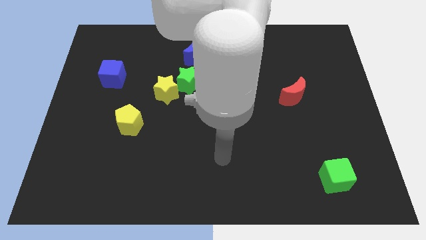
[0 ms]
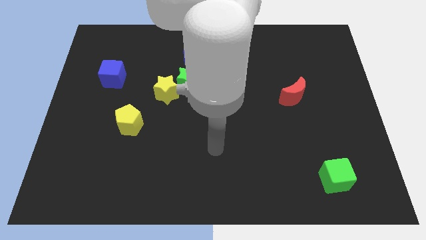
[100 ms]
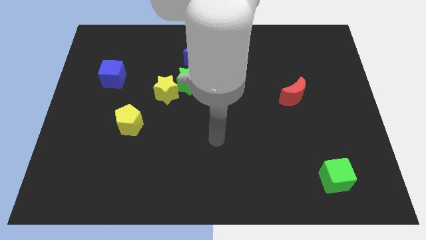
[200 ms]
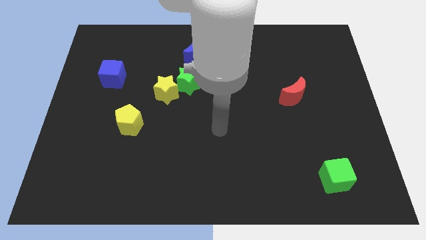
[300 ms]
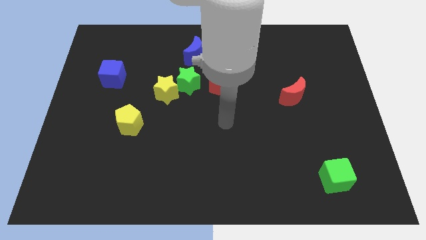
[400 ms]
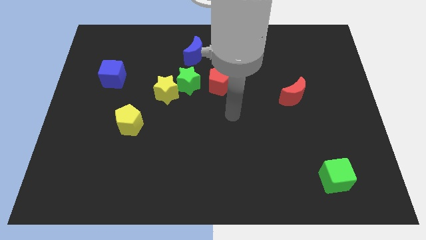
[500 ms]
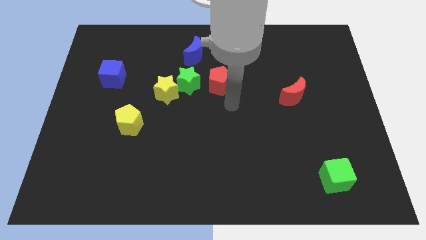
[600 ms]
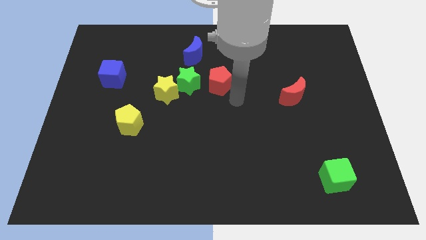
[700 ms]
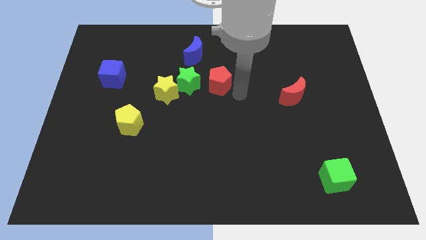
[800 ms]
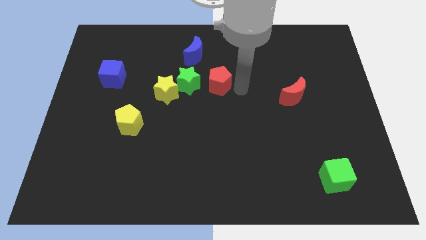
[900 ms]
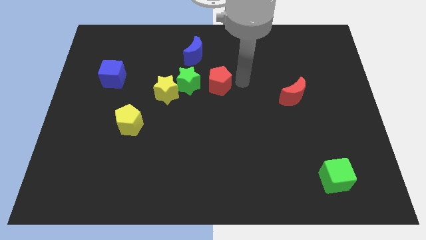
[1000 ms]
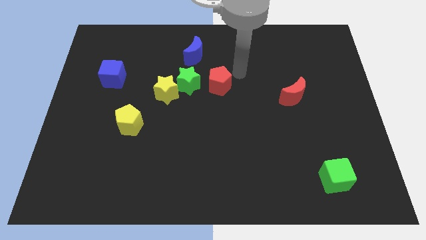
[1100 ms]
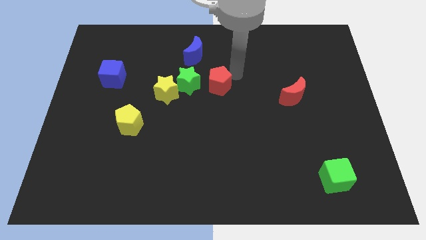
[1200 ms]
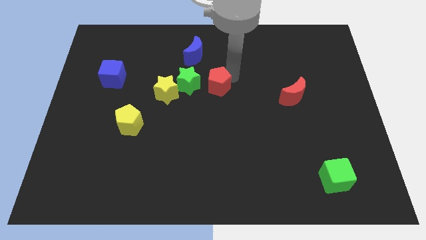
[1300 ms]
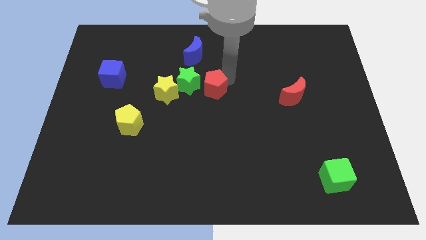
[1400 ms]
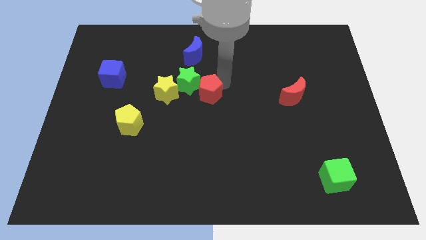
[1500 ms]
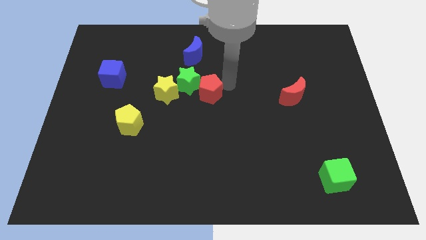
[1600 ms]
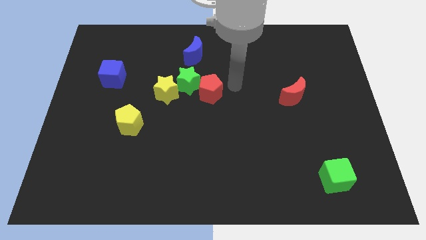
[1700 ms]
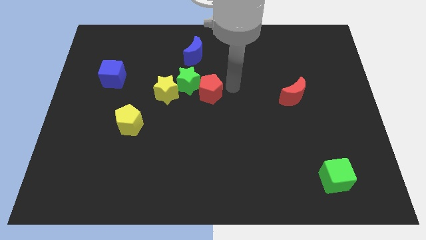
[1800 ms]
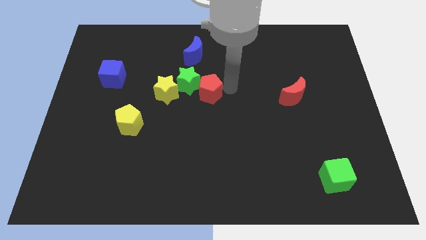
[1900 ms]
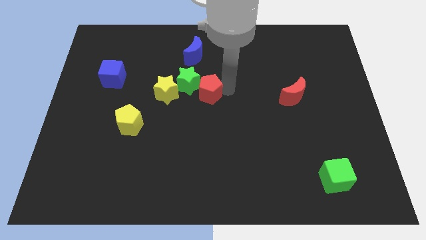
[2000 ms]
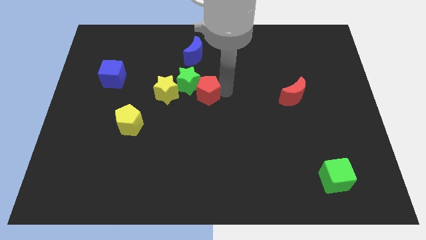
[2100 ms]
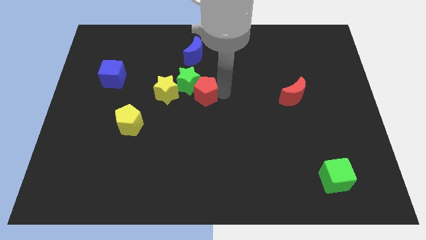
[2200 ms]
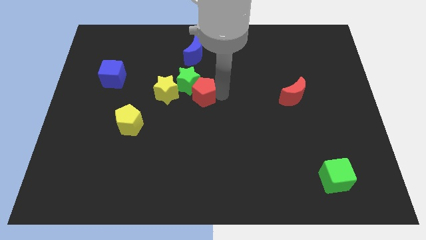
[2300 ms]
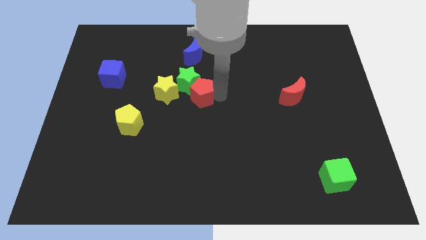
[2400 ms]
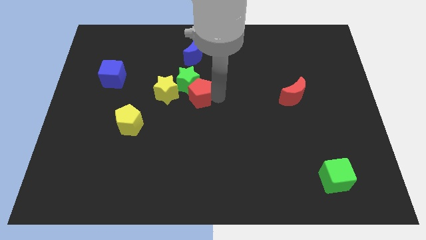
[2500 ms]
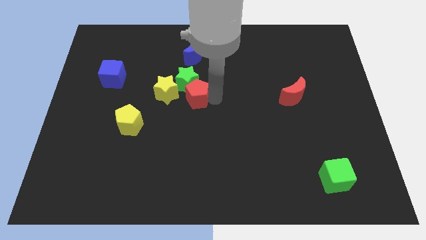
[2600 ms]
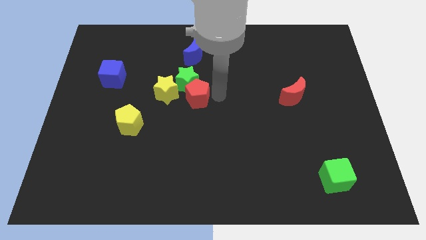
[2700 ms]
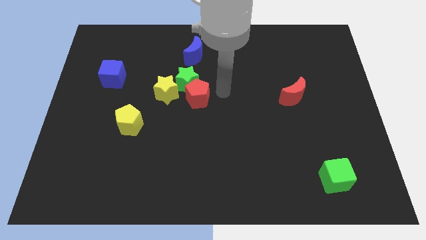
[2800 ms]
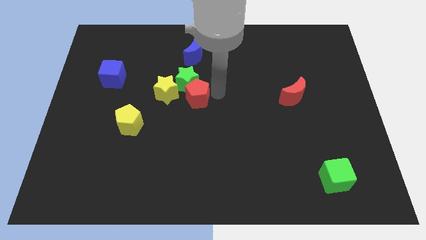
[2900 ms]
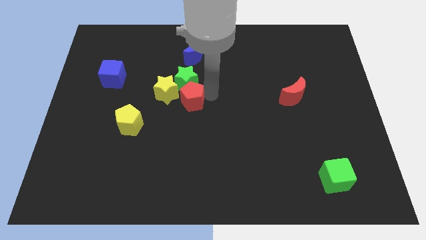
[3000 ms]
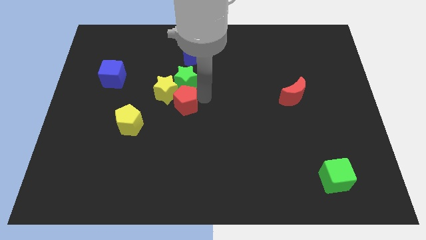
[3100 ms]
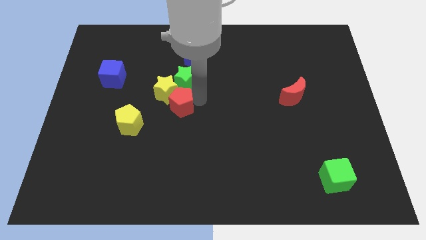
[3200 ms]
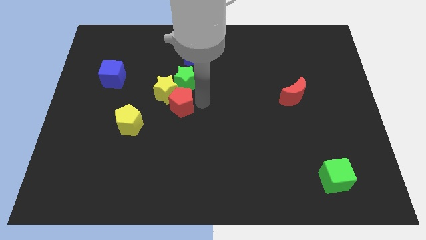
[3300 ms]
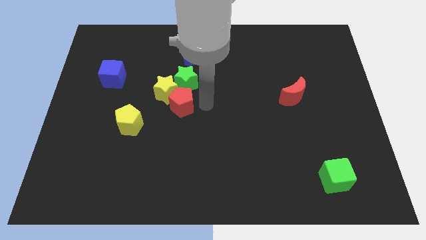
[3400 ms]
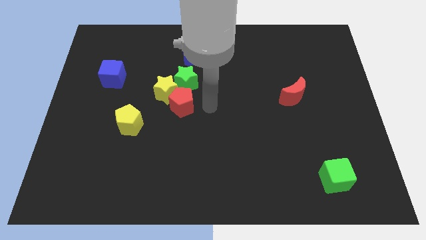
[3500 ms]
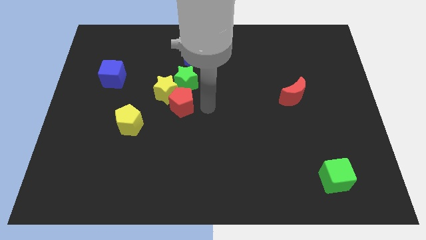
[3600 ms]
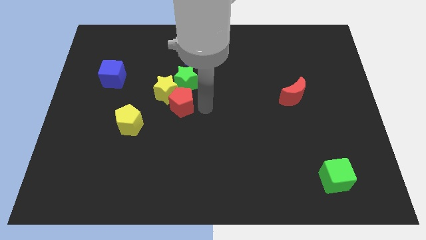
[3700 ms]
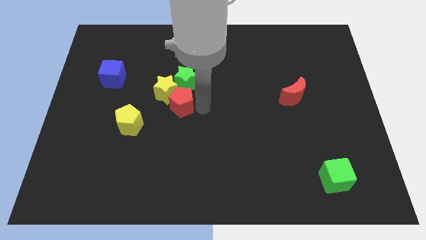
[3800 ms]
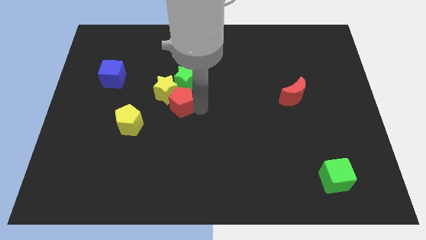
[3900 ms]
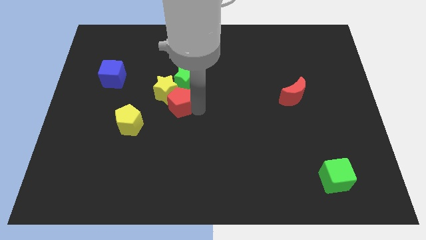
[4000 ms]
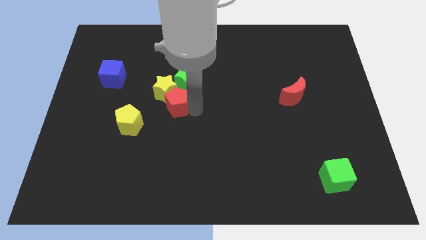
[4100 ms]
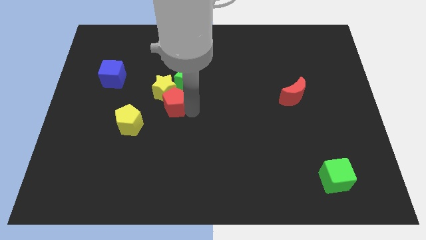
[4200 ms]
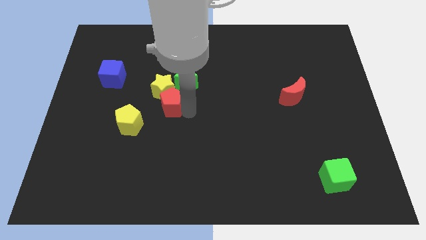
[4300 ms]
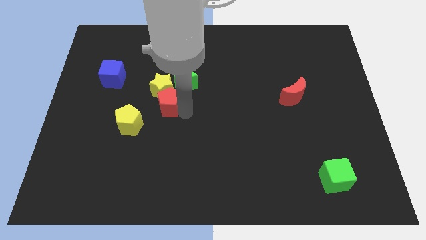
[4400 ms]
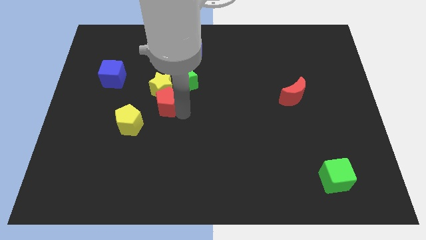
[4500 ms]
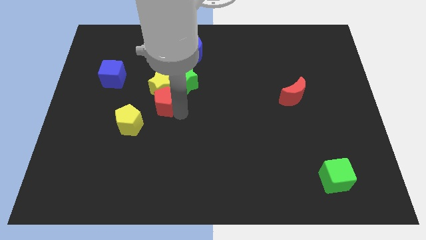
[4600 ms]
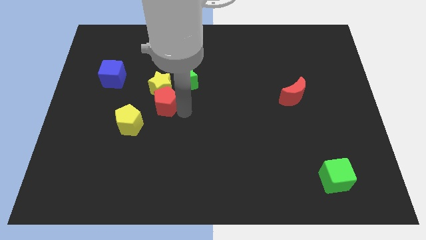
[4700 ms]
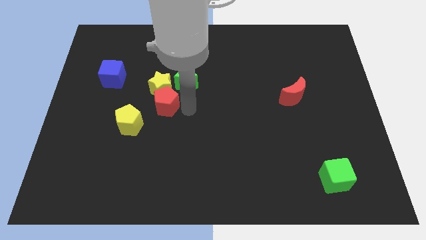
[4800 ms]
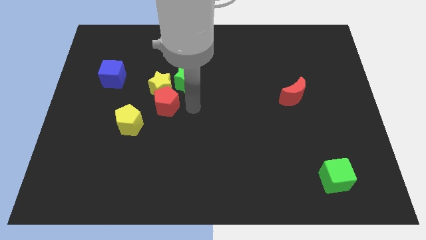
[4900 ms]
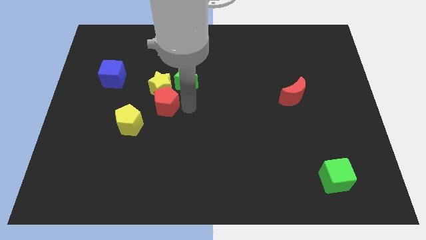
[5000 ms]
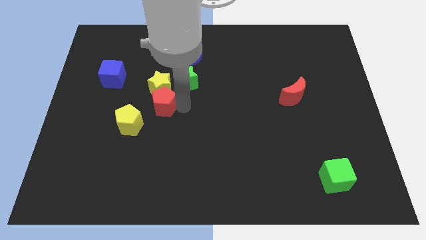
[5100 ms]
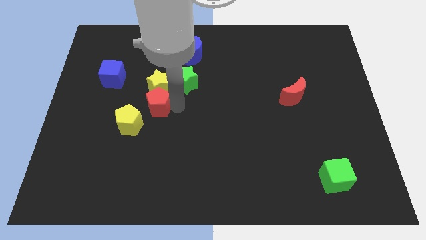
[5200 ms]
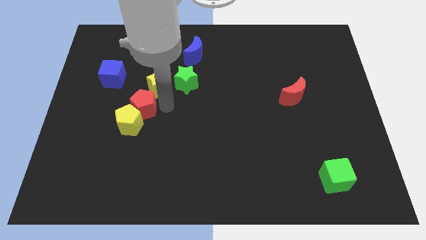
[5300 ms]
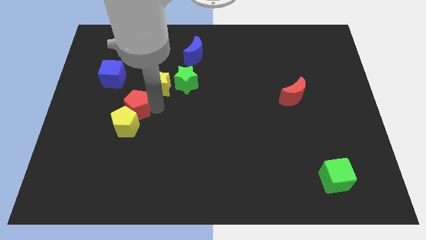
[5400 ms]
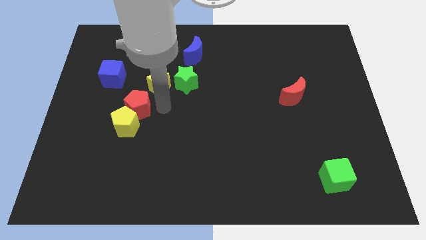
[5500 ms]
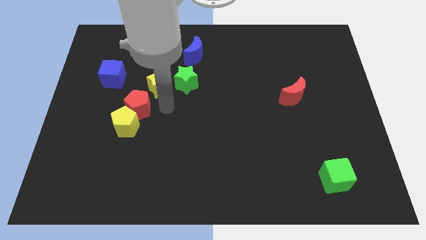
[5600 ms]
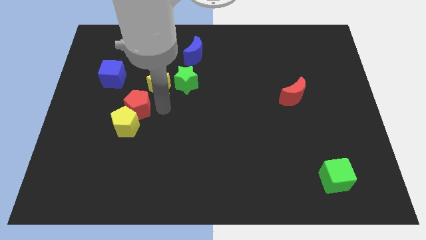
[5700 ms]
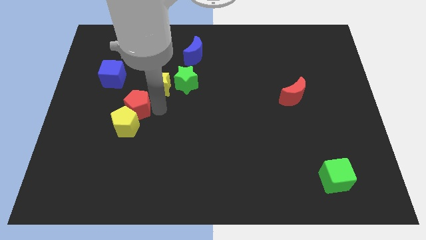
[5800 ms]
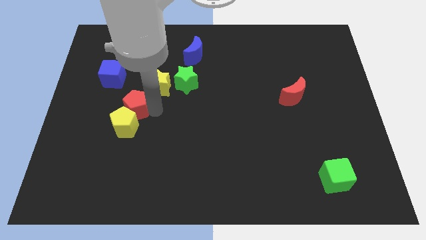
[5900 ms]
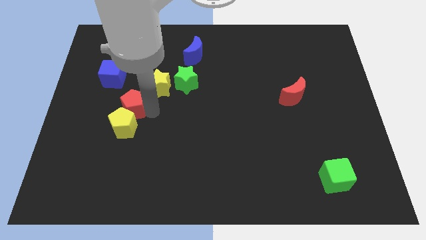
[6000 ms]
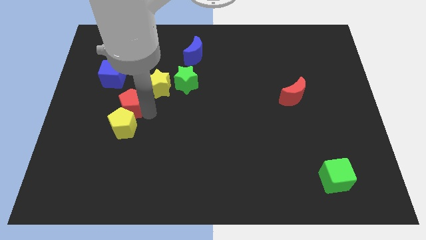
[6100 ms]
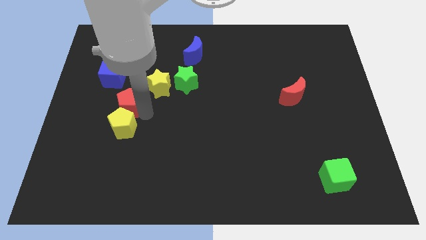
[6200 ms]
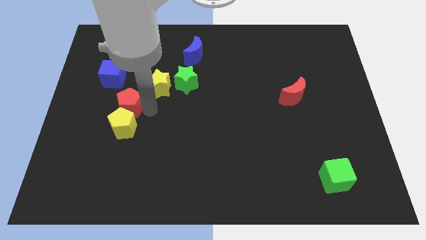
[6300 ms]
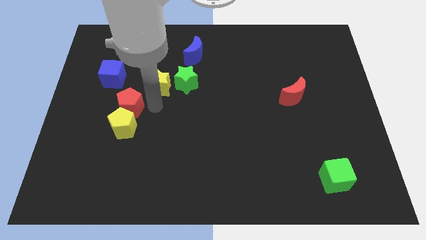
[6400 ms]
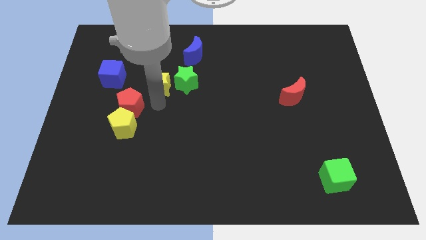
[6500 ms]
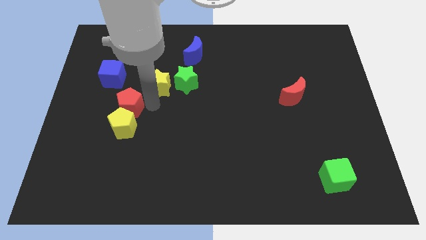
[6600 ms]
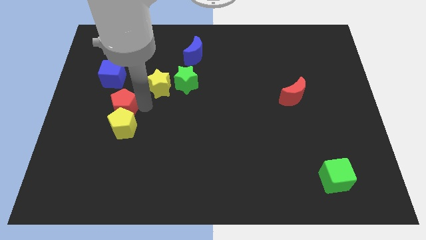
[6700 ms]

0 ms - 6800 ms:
slide the red pentagon to the bottom of the blue cube
